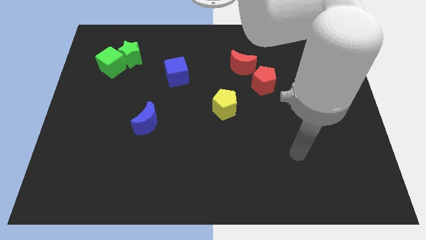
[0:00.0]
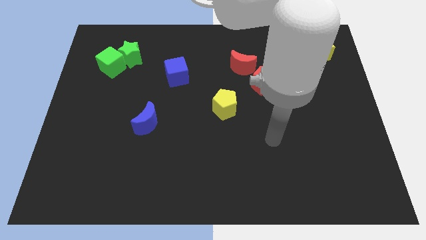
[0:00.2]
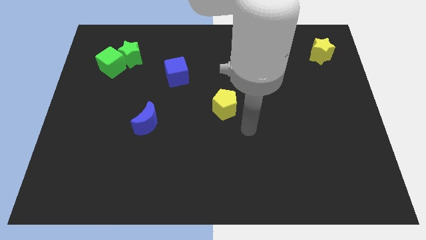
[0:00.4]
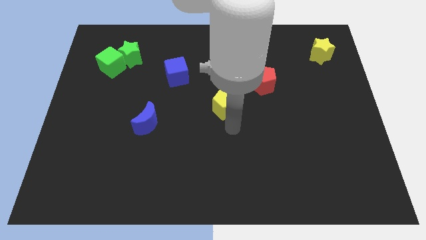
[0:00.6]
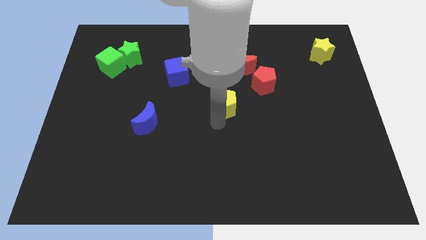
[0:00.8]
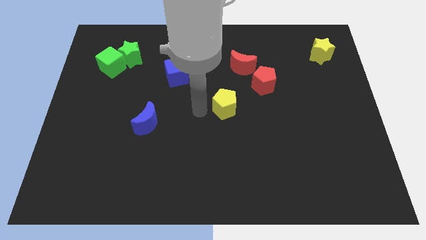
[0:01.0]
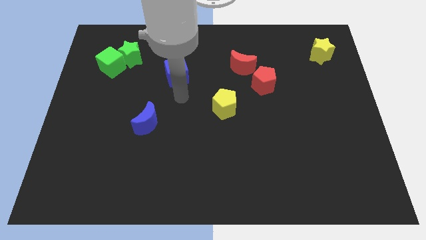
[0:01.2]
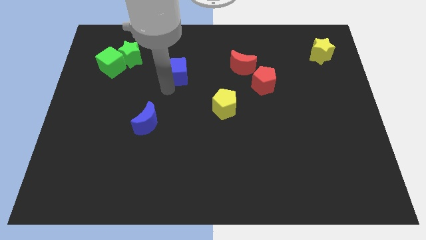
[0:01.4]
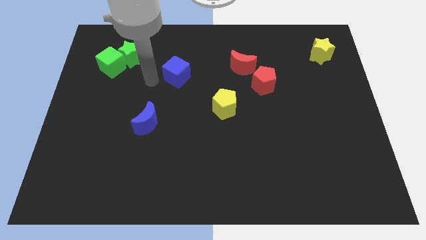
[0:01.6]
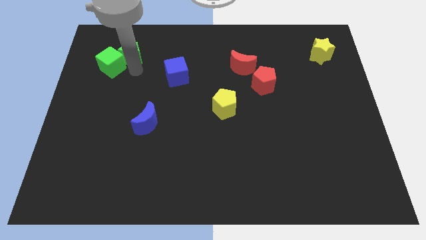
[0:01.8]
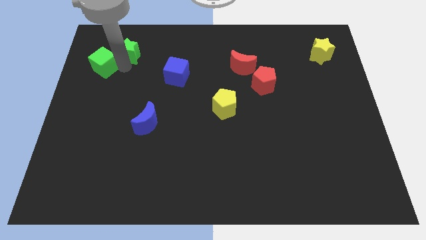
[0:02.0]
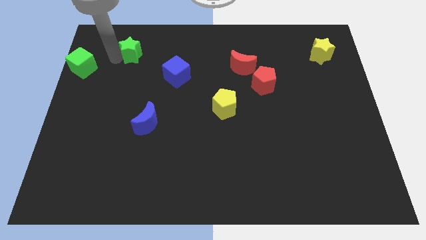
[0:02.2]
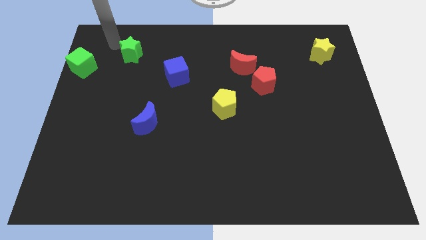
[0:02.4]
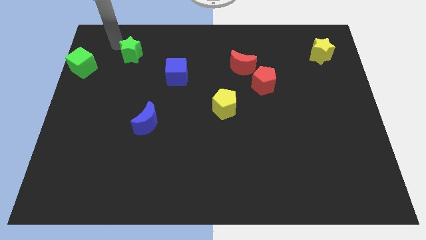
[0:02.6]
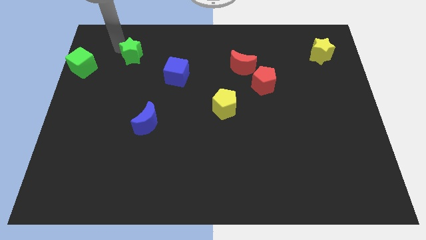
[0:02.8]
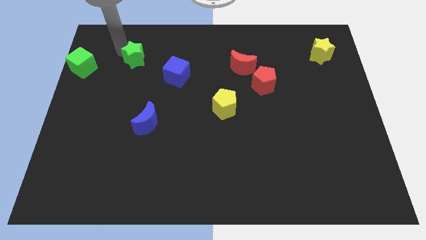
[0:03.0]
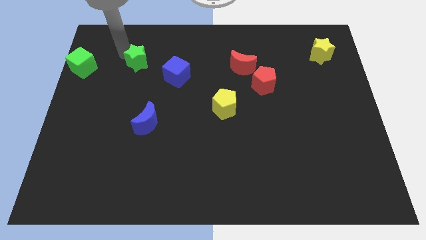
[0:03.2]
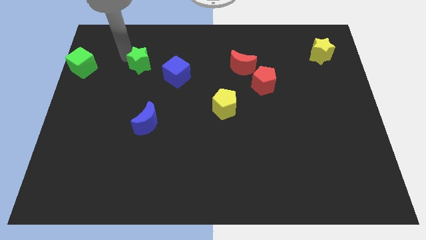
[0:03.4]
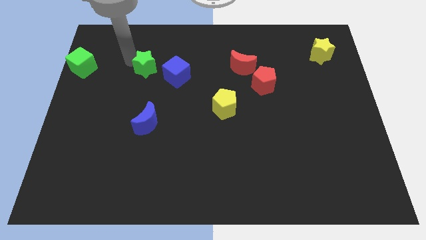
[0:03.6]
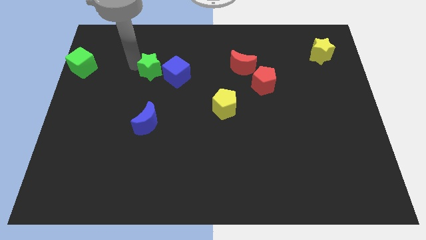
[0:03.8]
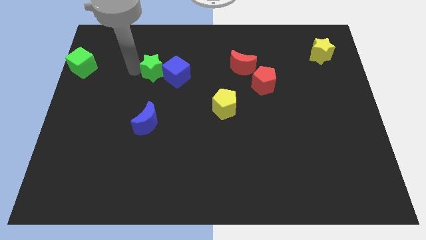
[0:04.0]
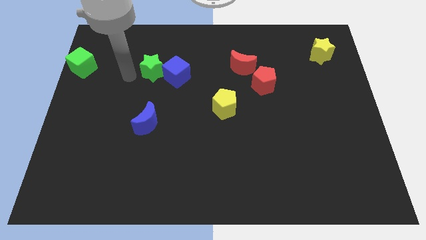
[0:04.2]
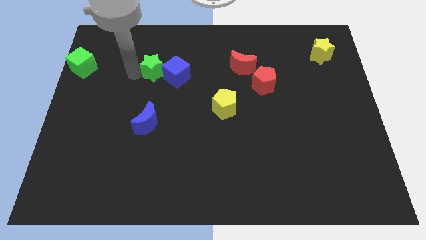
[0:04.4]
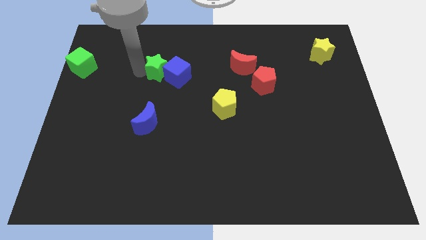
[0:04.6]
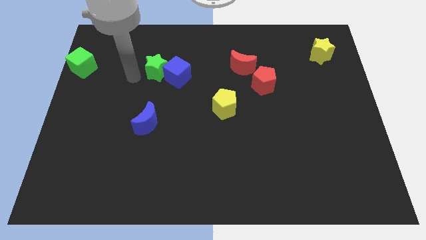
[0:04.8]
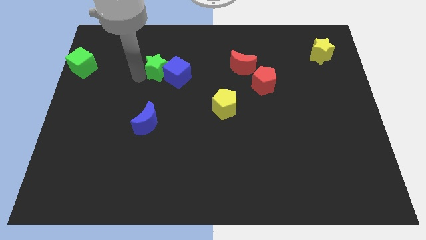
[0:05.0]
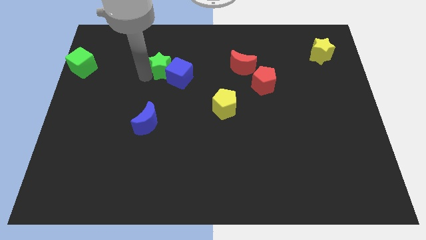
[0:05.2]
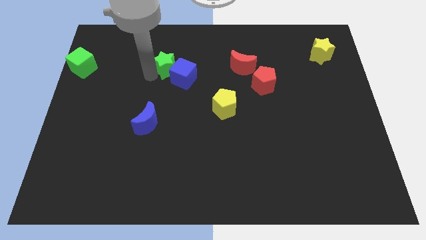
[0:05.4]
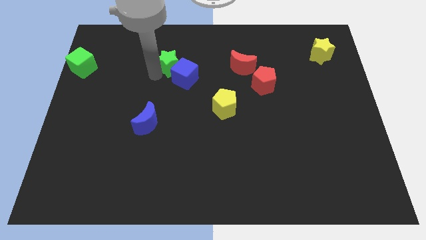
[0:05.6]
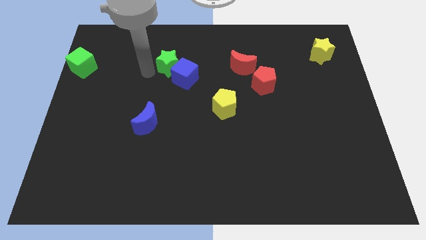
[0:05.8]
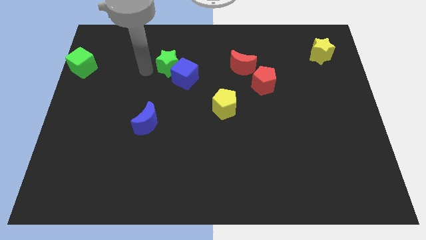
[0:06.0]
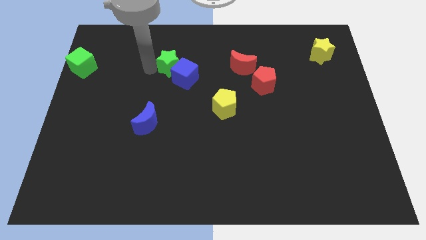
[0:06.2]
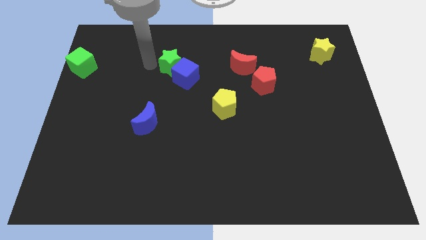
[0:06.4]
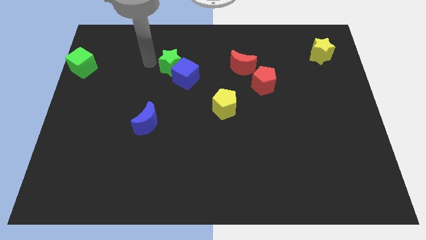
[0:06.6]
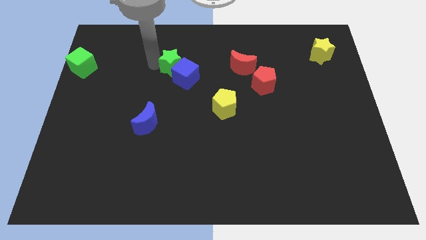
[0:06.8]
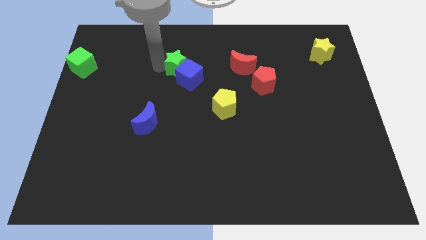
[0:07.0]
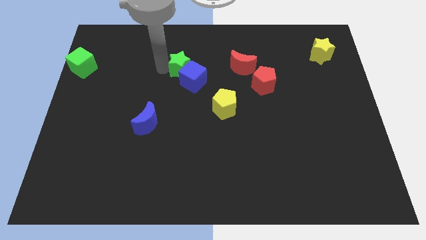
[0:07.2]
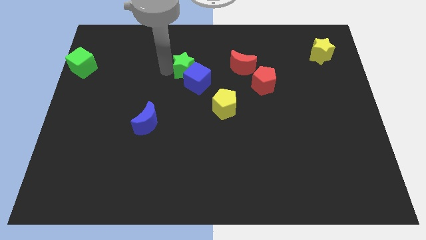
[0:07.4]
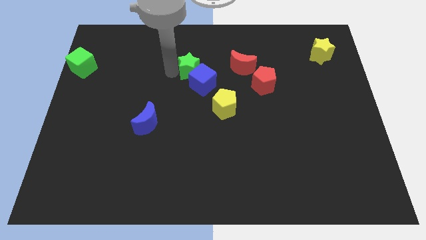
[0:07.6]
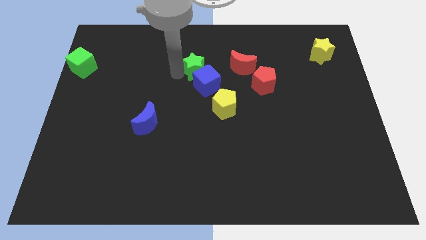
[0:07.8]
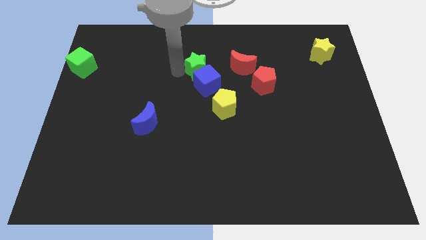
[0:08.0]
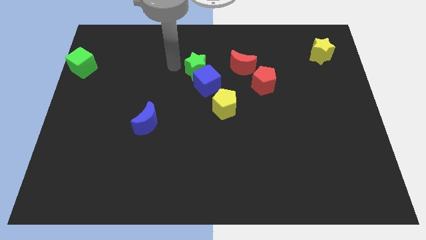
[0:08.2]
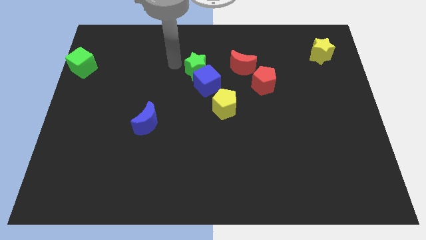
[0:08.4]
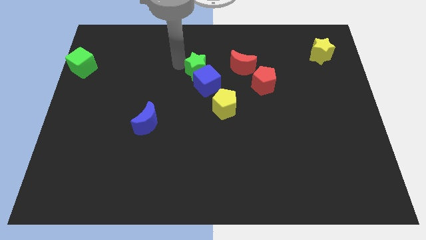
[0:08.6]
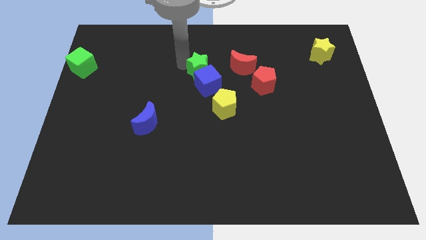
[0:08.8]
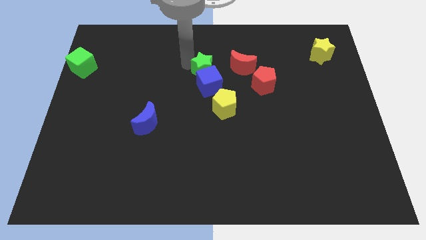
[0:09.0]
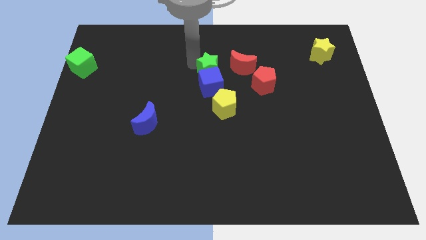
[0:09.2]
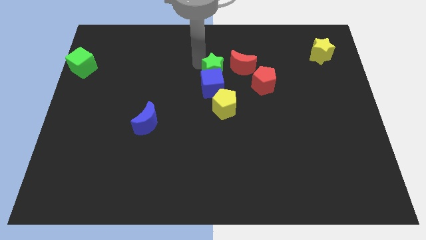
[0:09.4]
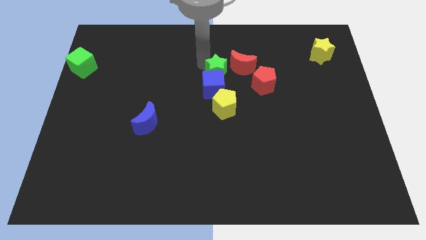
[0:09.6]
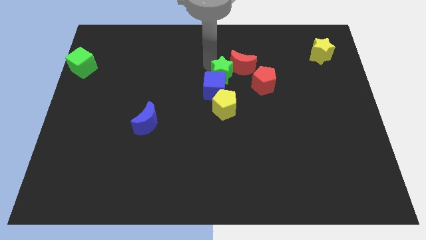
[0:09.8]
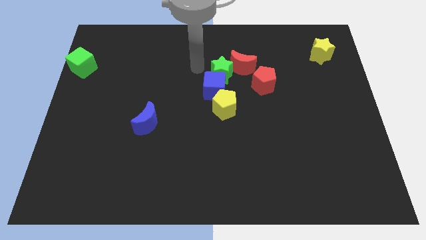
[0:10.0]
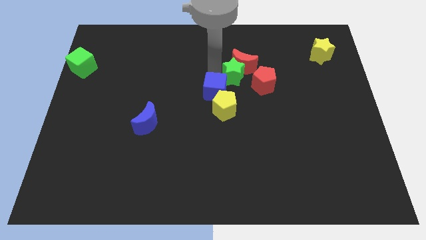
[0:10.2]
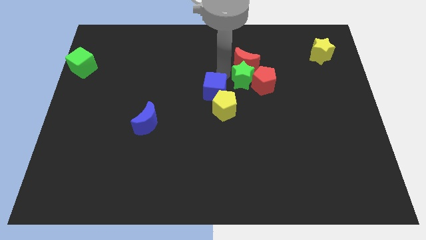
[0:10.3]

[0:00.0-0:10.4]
put the green star to the red pentagon

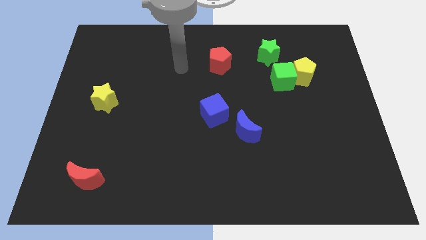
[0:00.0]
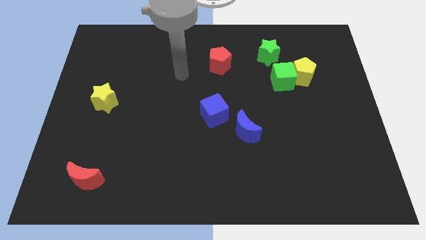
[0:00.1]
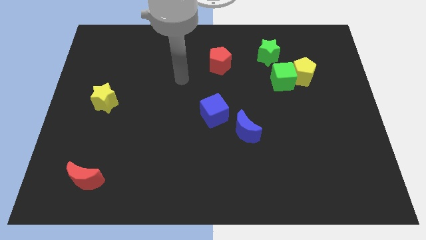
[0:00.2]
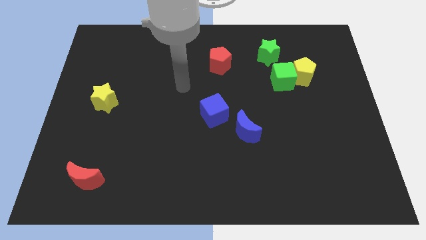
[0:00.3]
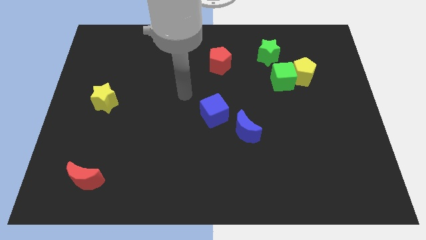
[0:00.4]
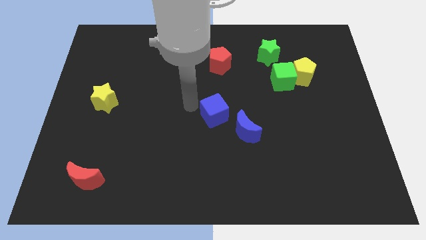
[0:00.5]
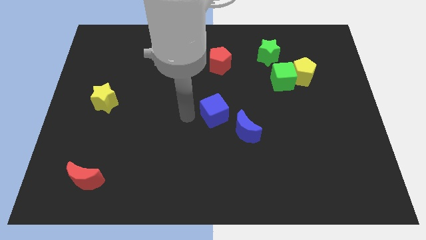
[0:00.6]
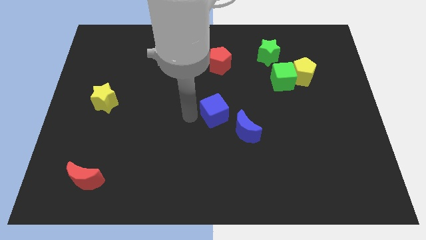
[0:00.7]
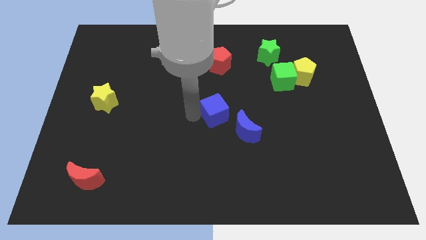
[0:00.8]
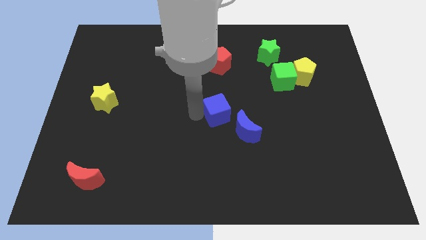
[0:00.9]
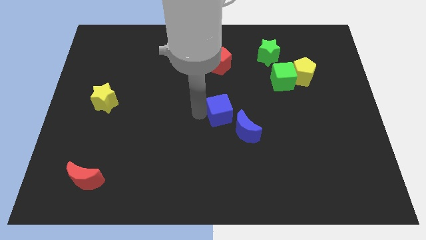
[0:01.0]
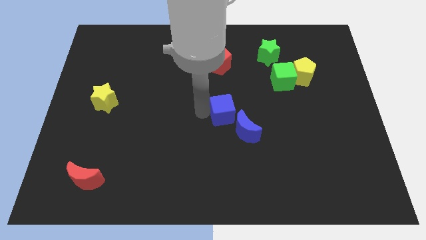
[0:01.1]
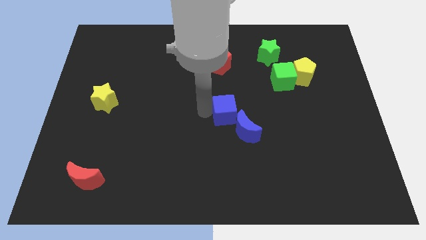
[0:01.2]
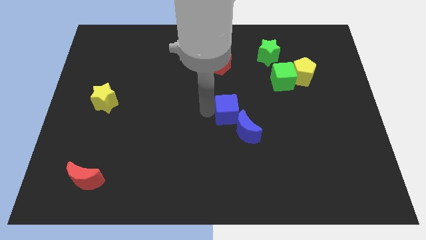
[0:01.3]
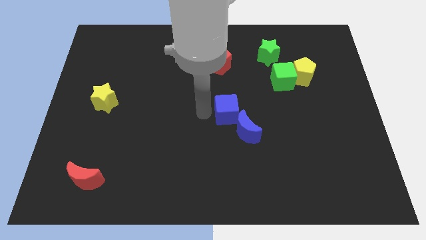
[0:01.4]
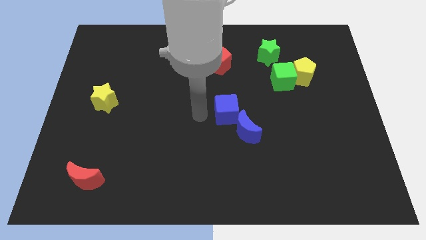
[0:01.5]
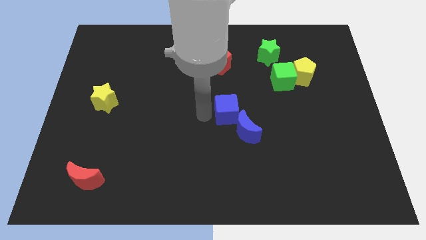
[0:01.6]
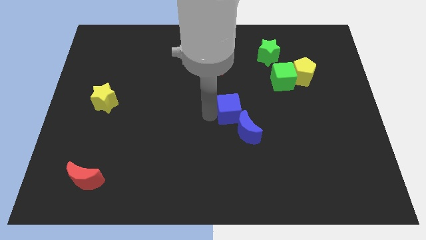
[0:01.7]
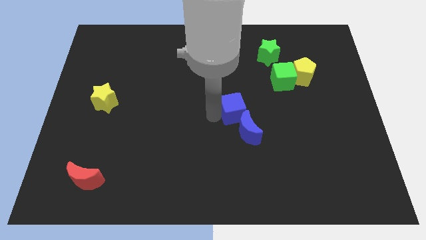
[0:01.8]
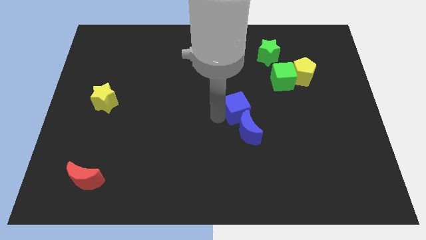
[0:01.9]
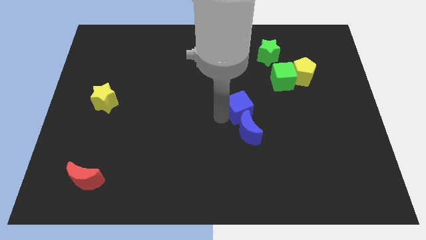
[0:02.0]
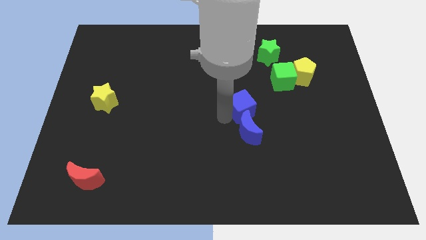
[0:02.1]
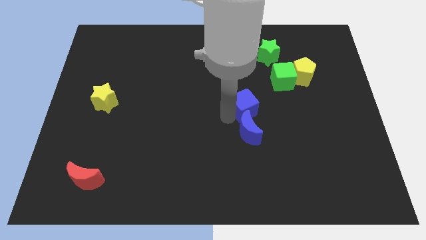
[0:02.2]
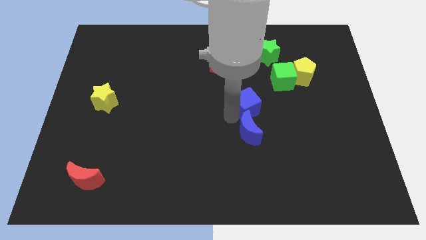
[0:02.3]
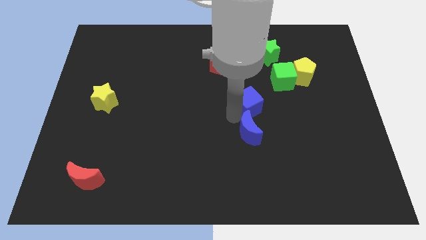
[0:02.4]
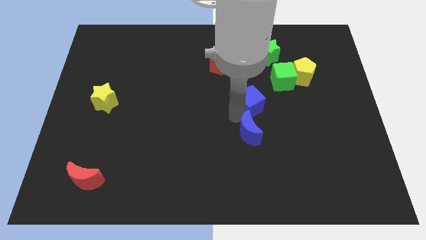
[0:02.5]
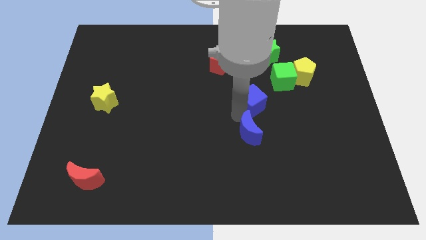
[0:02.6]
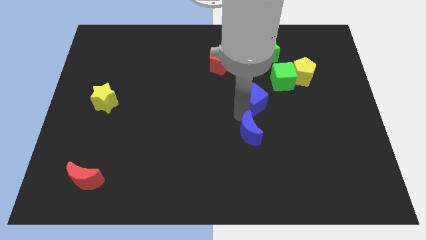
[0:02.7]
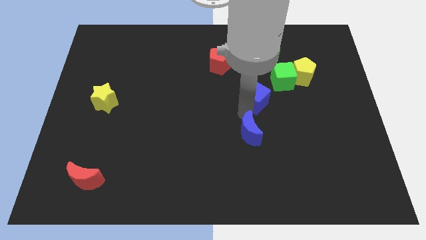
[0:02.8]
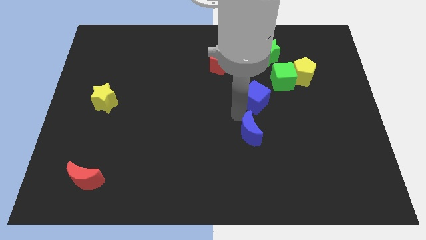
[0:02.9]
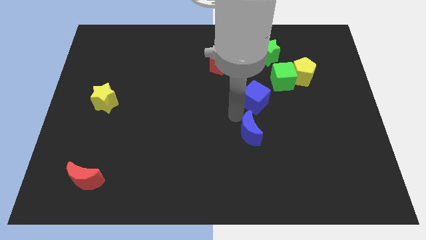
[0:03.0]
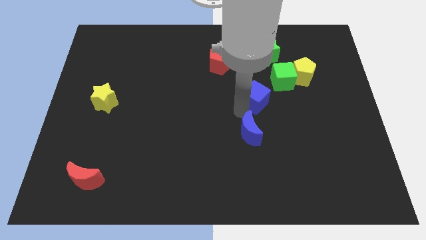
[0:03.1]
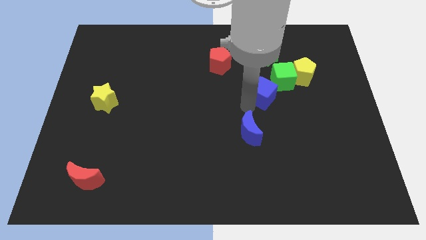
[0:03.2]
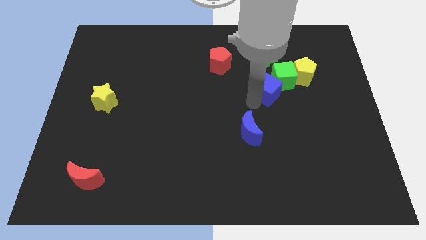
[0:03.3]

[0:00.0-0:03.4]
put the blue cube close to the green cube
